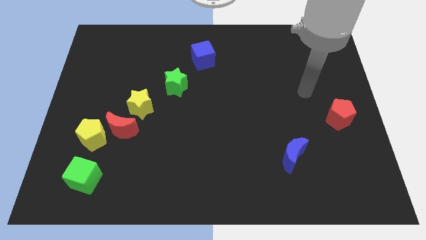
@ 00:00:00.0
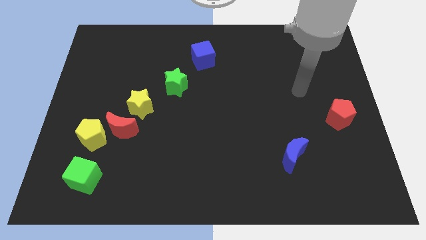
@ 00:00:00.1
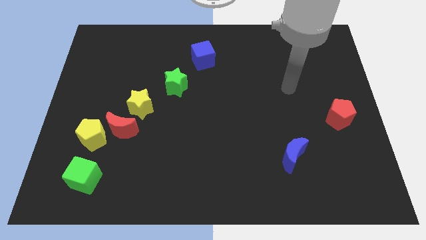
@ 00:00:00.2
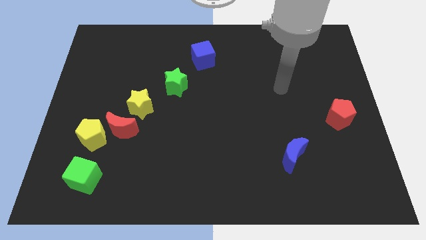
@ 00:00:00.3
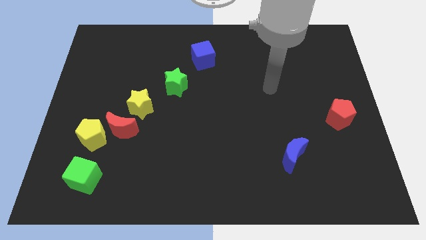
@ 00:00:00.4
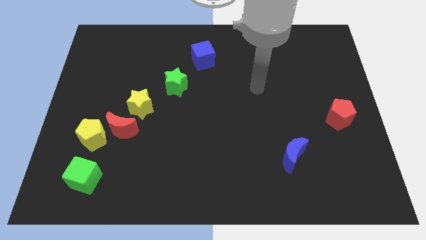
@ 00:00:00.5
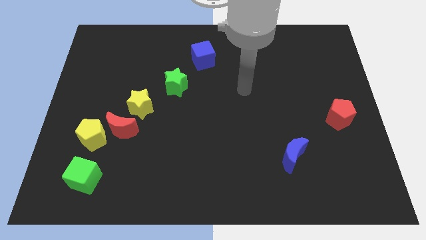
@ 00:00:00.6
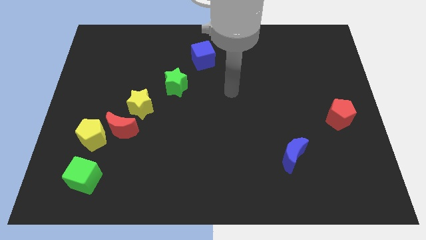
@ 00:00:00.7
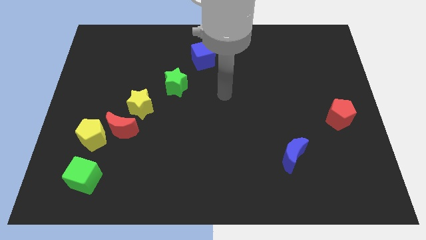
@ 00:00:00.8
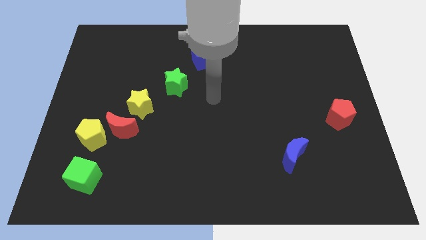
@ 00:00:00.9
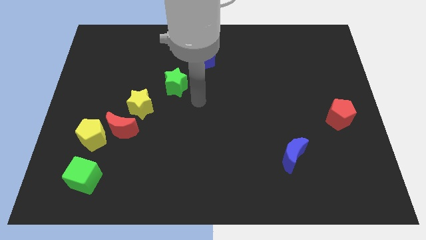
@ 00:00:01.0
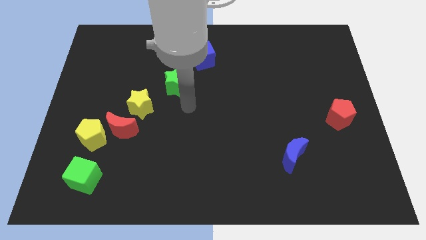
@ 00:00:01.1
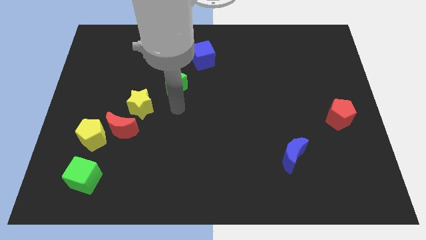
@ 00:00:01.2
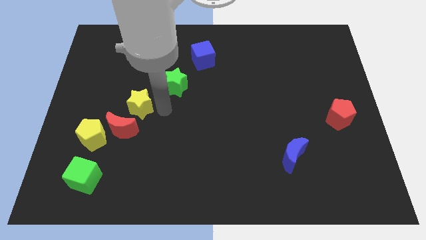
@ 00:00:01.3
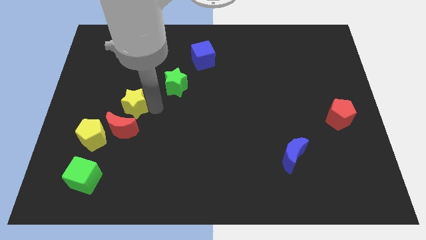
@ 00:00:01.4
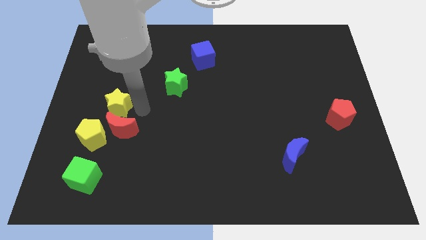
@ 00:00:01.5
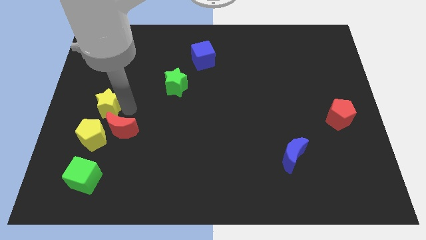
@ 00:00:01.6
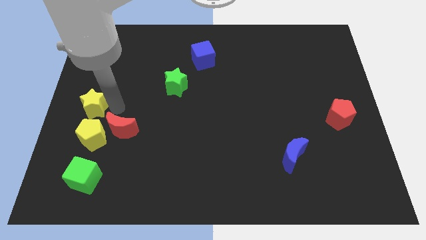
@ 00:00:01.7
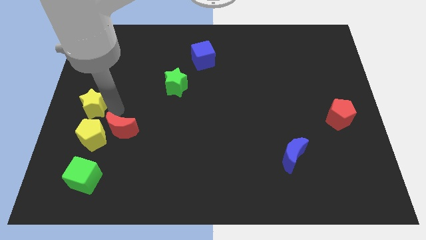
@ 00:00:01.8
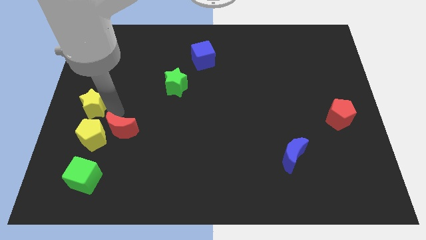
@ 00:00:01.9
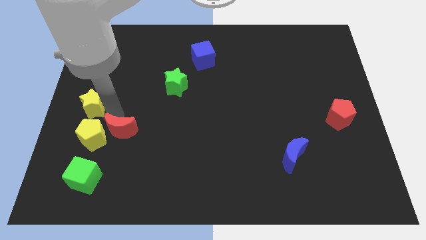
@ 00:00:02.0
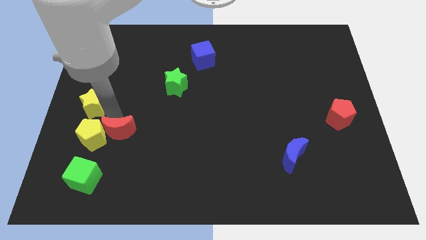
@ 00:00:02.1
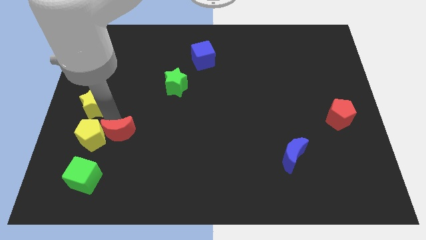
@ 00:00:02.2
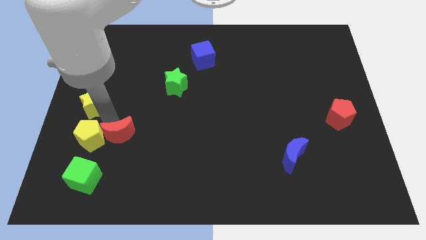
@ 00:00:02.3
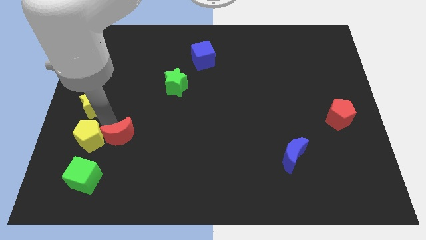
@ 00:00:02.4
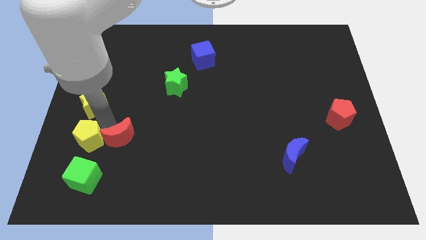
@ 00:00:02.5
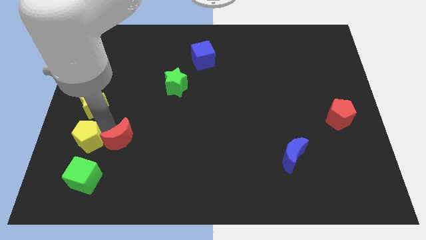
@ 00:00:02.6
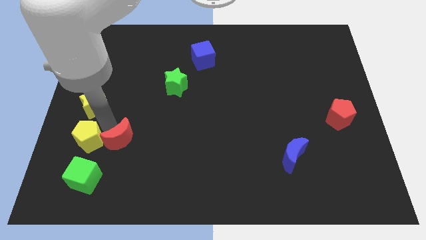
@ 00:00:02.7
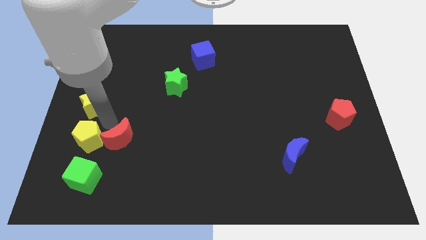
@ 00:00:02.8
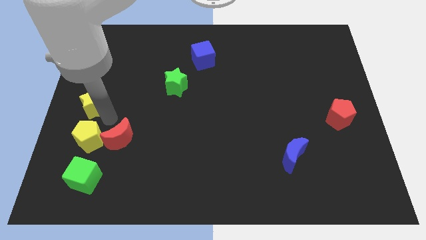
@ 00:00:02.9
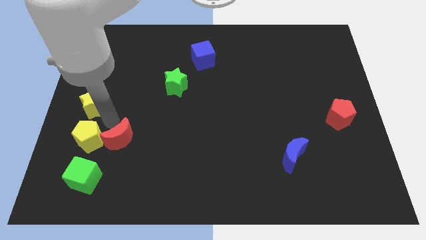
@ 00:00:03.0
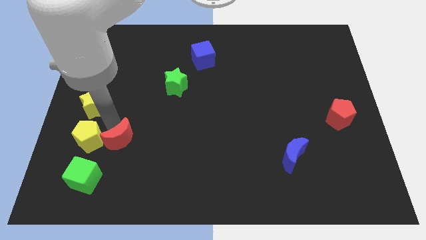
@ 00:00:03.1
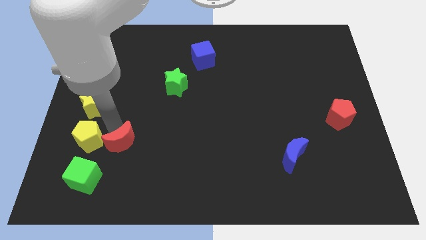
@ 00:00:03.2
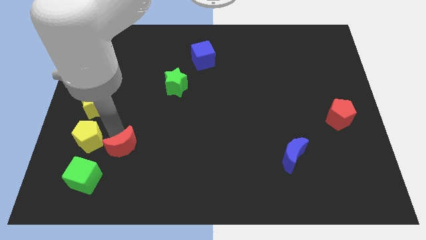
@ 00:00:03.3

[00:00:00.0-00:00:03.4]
move the red moon away from the yellow pentagon and yellow star

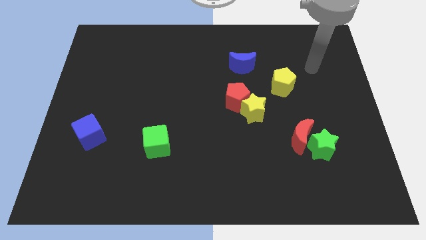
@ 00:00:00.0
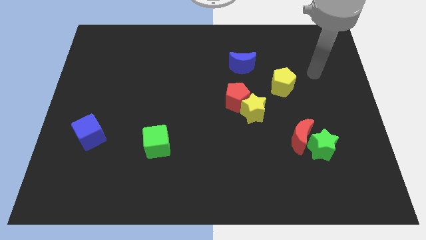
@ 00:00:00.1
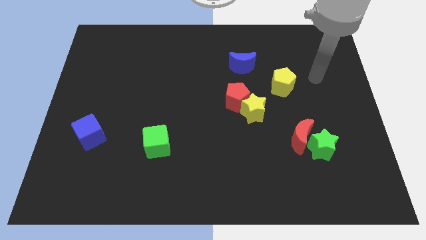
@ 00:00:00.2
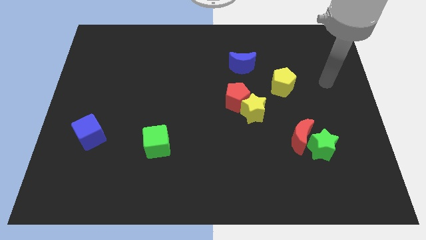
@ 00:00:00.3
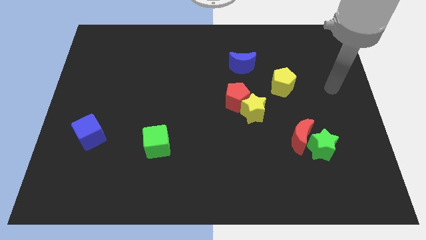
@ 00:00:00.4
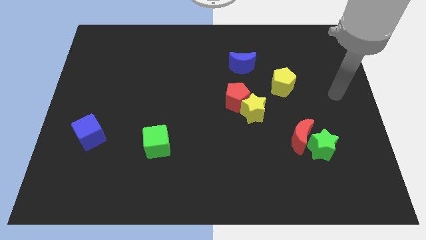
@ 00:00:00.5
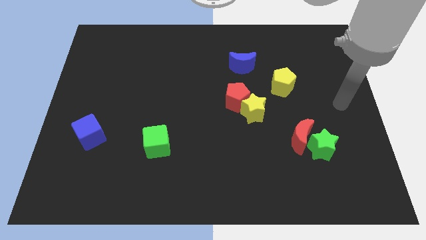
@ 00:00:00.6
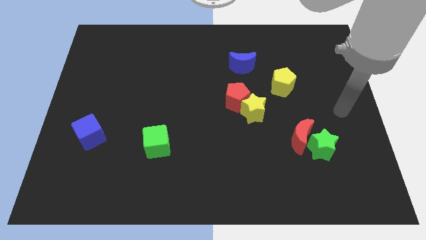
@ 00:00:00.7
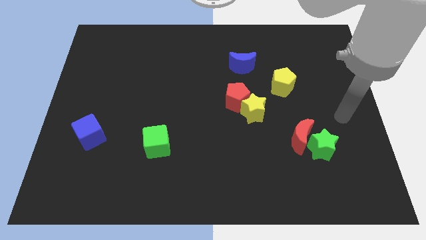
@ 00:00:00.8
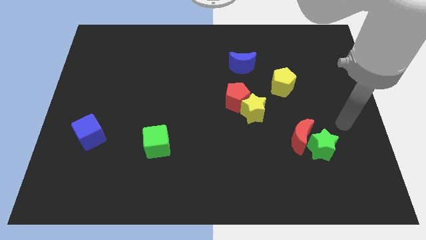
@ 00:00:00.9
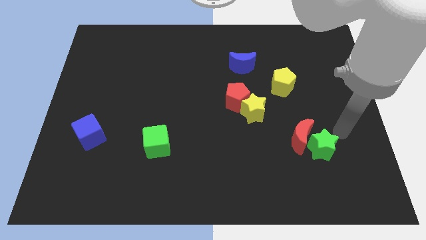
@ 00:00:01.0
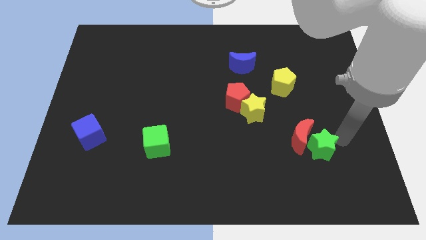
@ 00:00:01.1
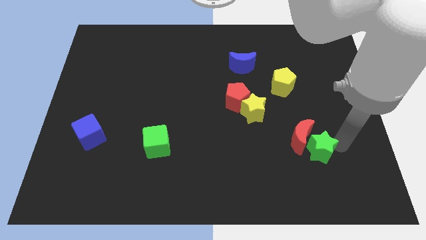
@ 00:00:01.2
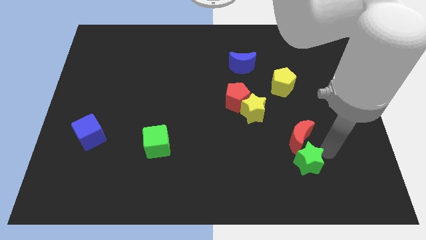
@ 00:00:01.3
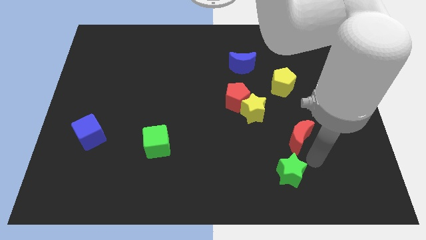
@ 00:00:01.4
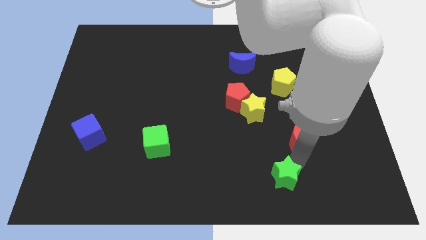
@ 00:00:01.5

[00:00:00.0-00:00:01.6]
separate the red moon from the green star

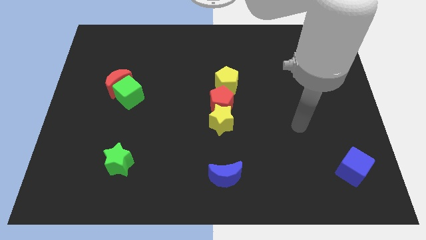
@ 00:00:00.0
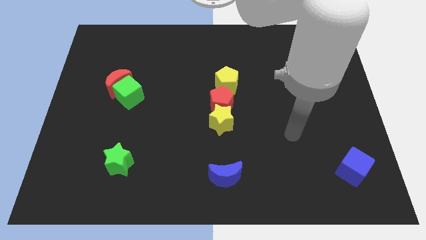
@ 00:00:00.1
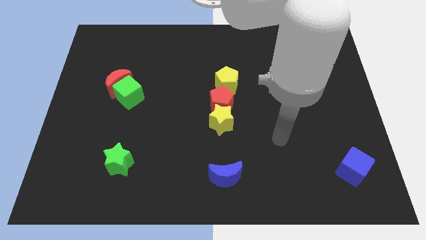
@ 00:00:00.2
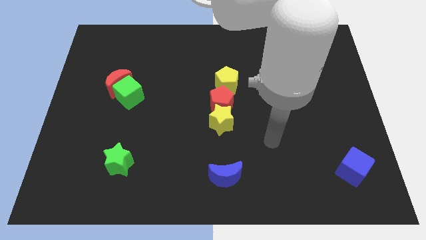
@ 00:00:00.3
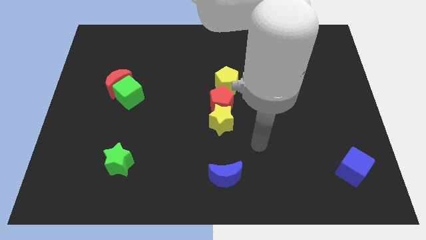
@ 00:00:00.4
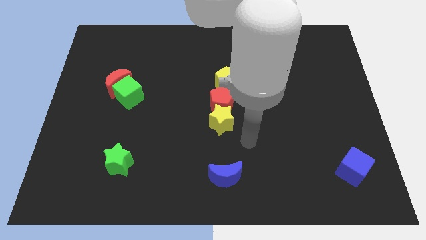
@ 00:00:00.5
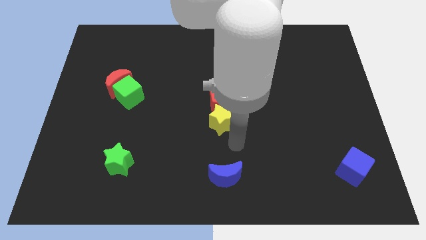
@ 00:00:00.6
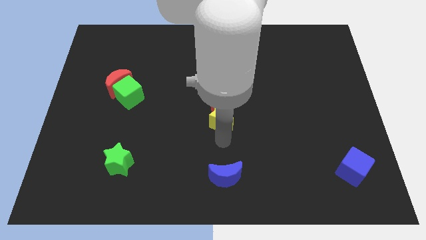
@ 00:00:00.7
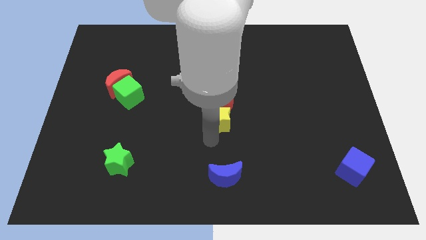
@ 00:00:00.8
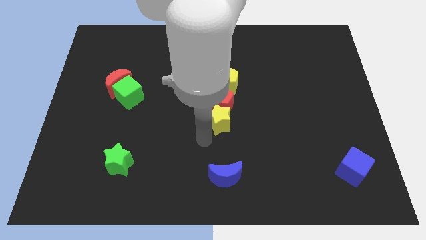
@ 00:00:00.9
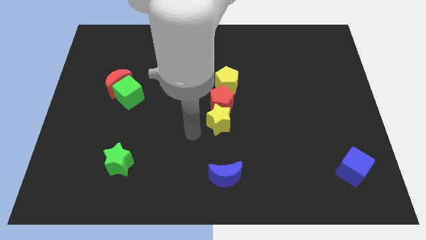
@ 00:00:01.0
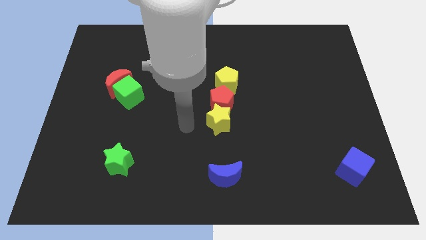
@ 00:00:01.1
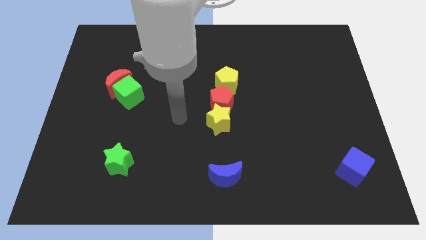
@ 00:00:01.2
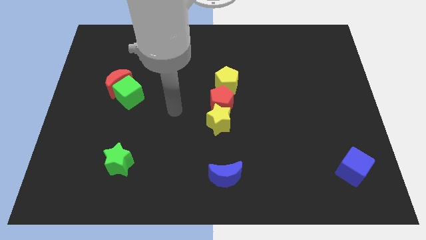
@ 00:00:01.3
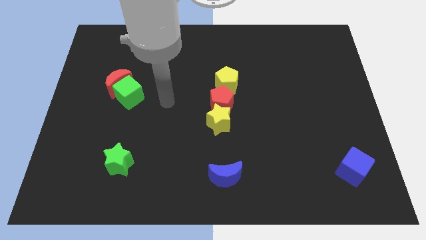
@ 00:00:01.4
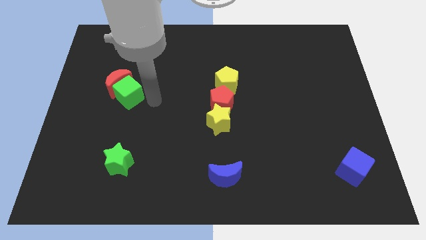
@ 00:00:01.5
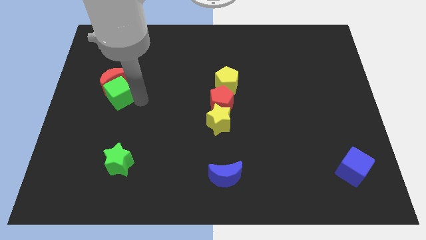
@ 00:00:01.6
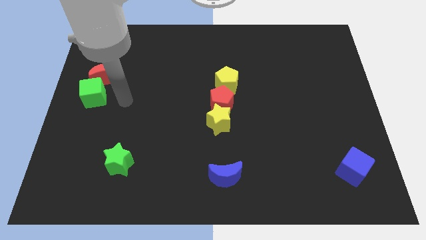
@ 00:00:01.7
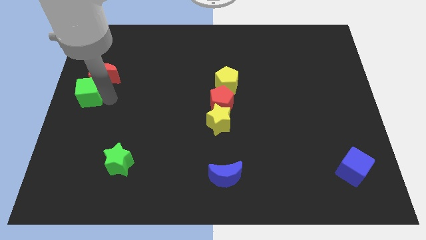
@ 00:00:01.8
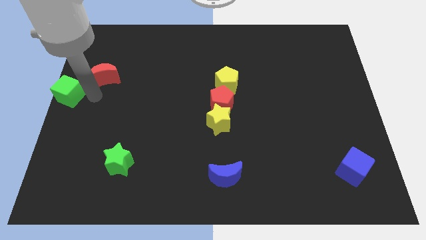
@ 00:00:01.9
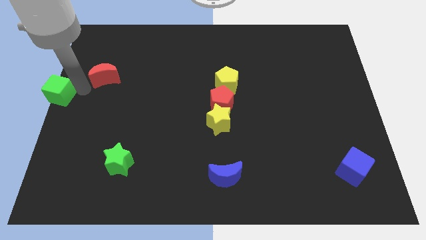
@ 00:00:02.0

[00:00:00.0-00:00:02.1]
separate the red moon from the green cube

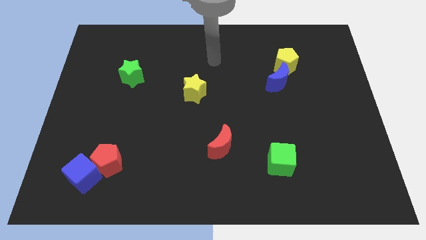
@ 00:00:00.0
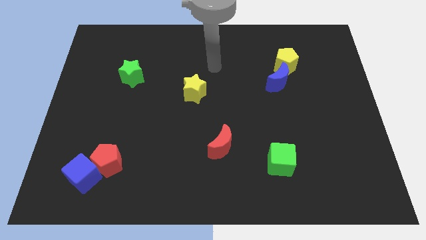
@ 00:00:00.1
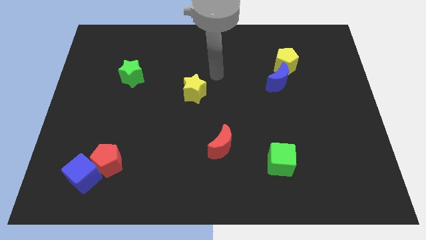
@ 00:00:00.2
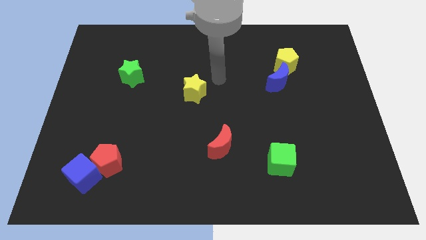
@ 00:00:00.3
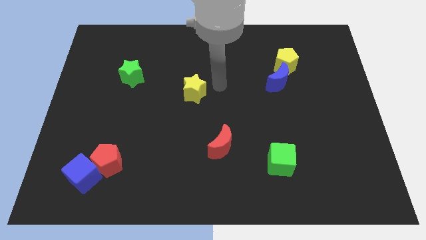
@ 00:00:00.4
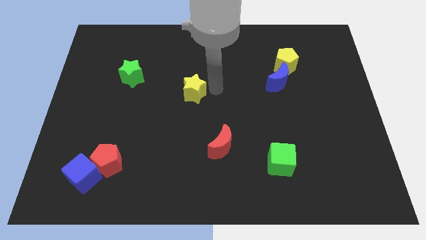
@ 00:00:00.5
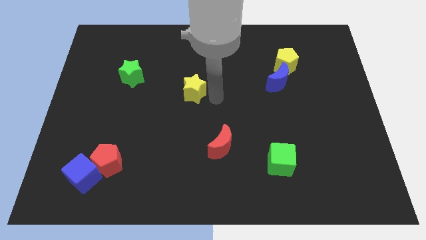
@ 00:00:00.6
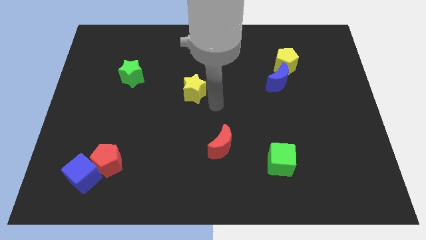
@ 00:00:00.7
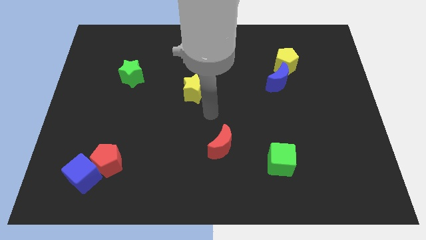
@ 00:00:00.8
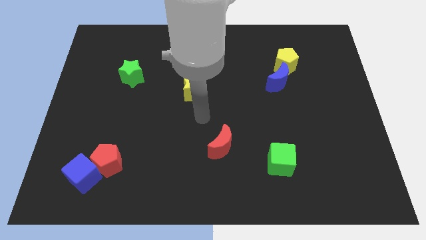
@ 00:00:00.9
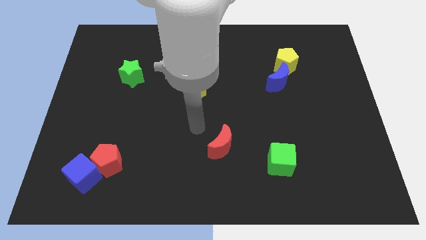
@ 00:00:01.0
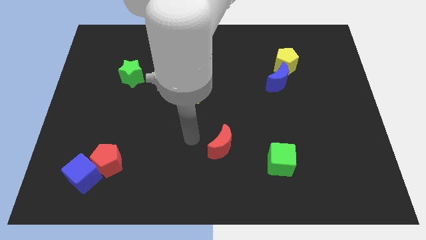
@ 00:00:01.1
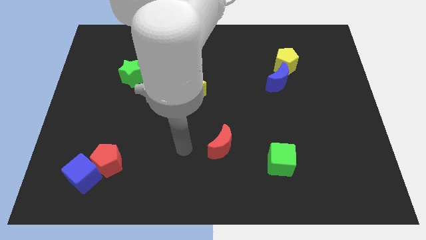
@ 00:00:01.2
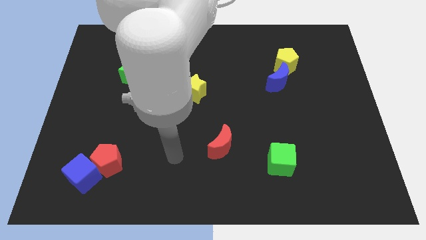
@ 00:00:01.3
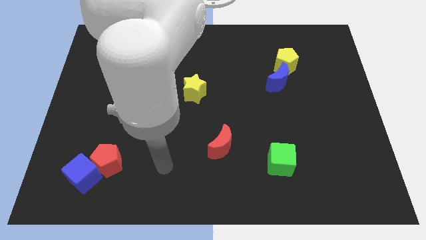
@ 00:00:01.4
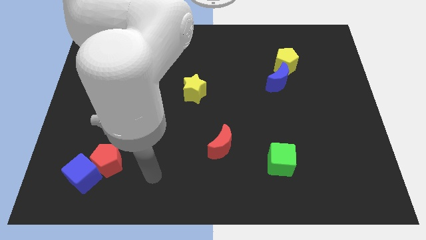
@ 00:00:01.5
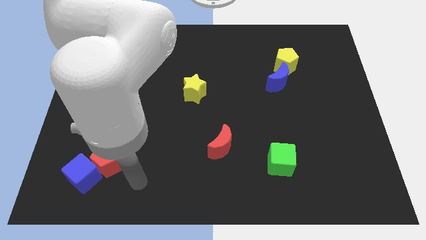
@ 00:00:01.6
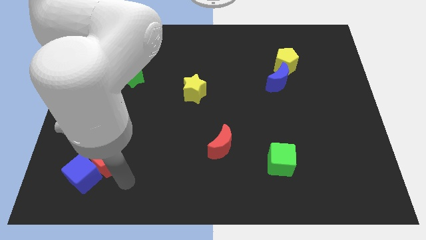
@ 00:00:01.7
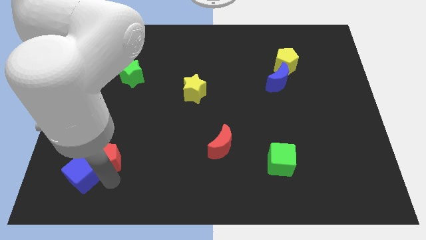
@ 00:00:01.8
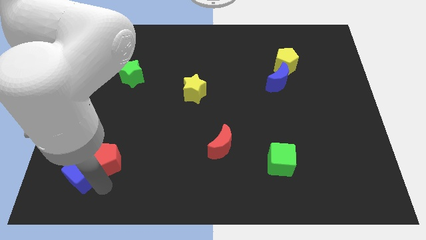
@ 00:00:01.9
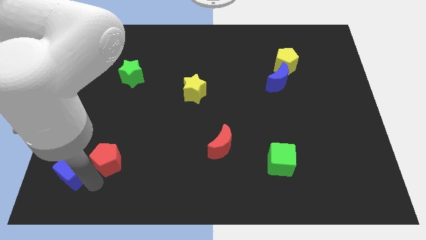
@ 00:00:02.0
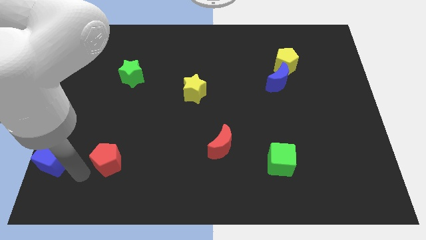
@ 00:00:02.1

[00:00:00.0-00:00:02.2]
move the red pentagon away from the blue cube

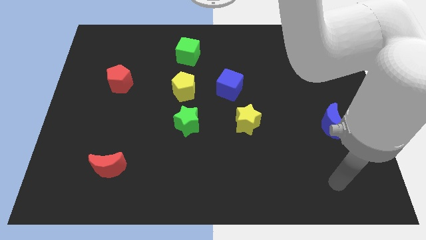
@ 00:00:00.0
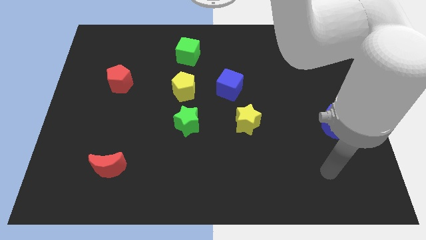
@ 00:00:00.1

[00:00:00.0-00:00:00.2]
pull the green star apart from the yellow pentagon
